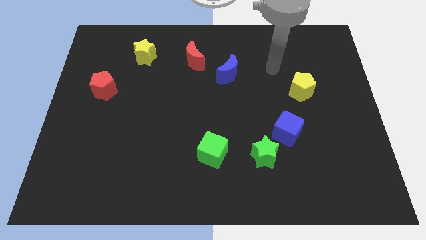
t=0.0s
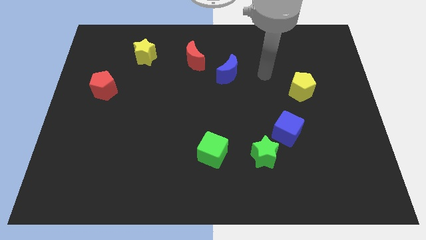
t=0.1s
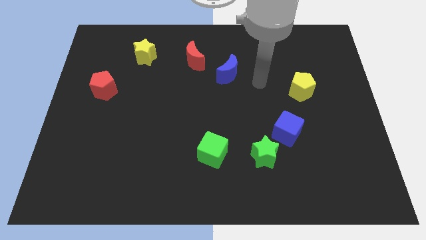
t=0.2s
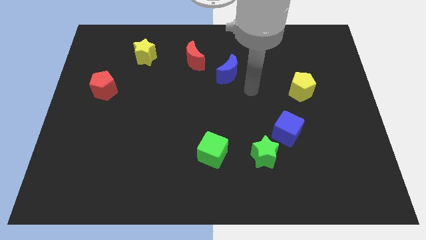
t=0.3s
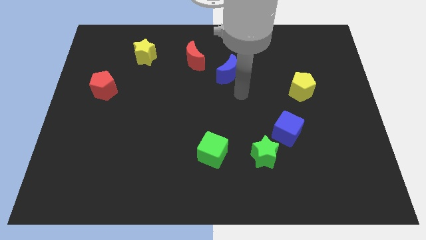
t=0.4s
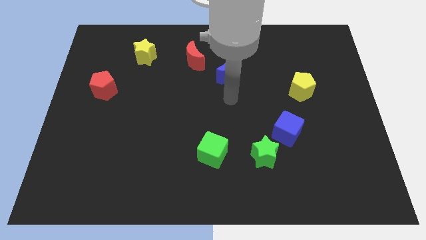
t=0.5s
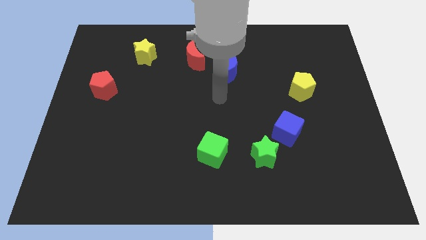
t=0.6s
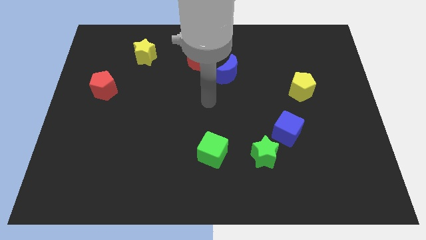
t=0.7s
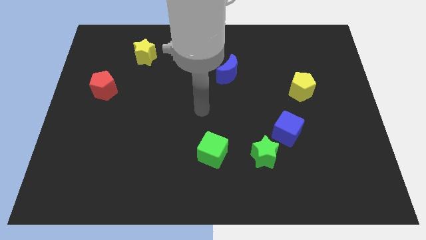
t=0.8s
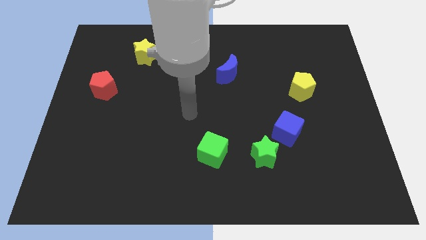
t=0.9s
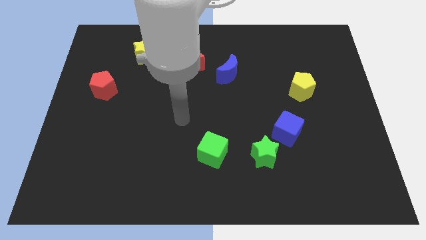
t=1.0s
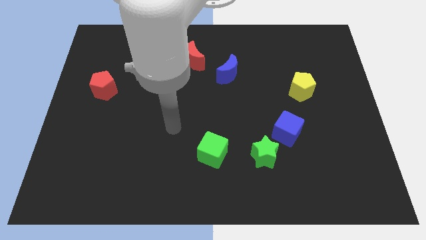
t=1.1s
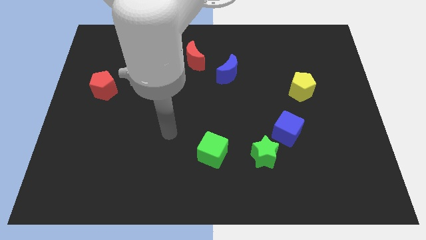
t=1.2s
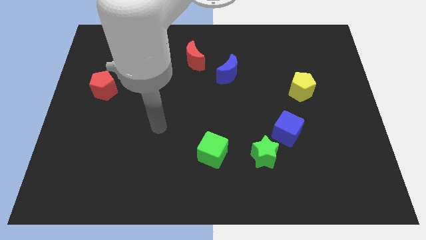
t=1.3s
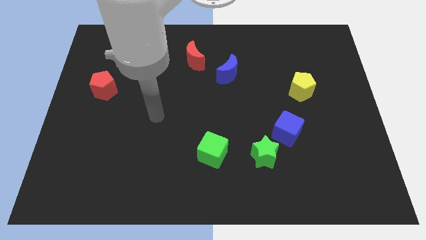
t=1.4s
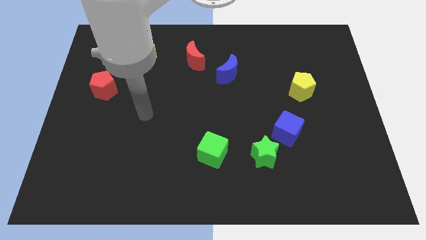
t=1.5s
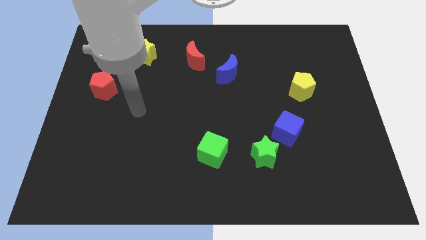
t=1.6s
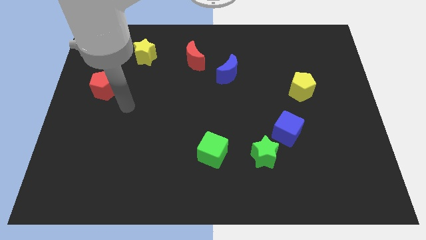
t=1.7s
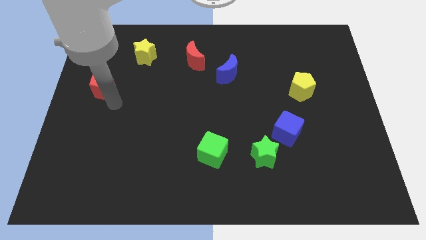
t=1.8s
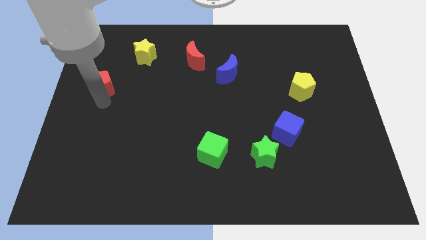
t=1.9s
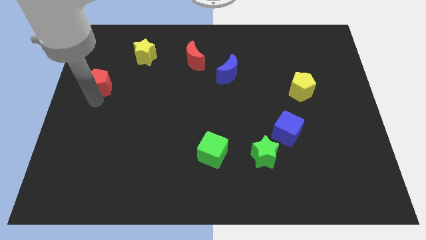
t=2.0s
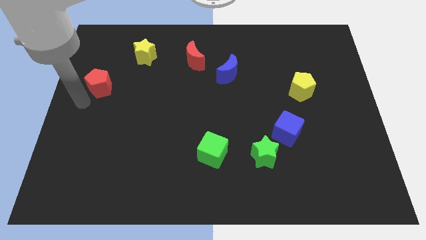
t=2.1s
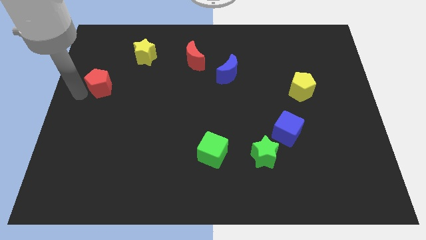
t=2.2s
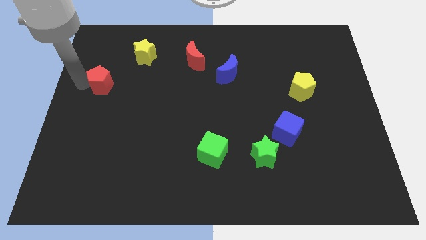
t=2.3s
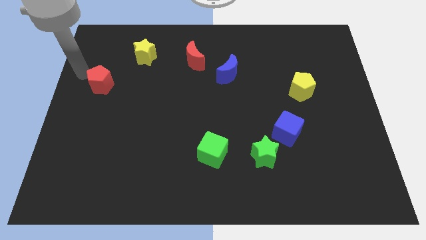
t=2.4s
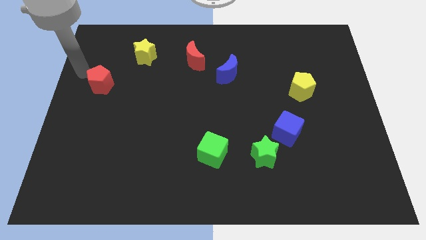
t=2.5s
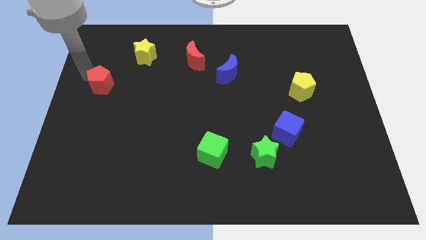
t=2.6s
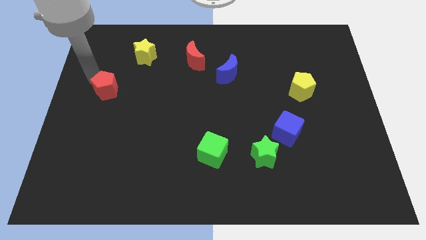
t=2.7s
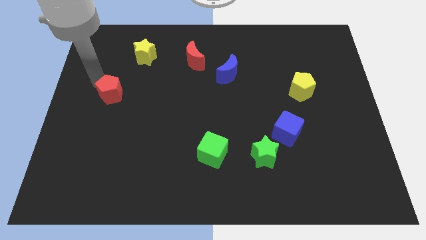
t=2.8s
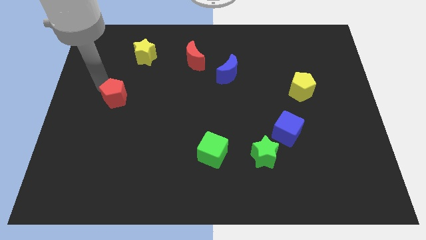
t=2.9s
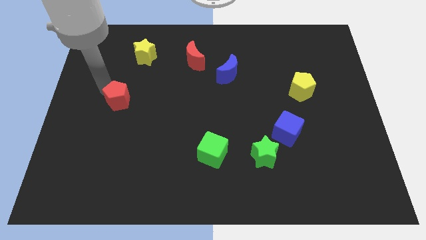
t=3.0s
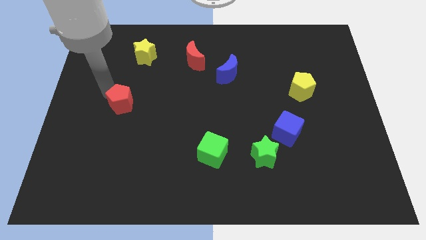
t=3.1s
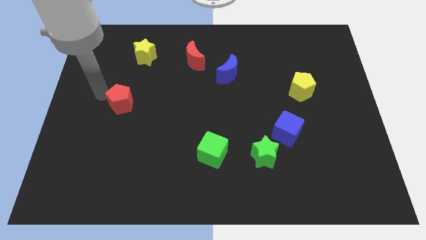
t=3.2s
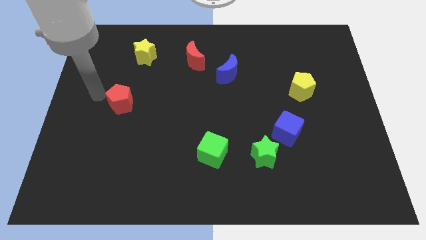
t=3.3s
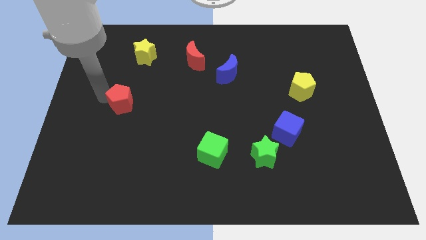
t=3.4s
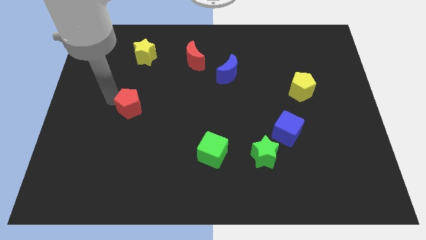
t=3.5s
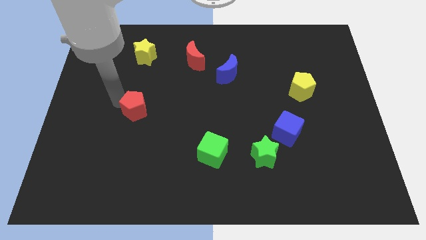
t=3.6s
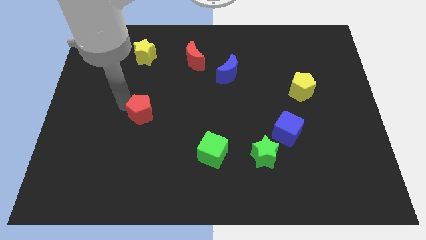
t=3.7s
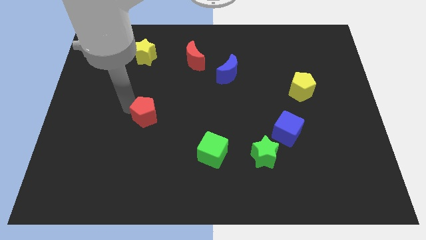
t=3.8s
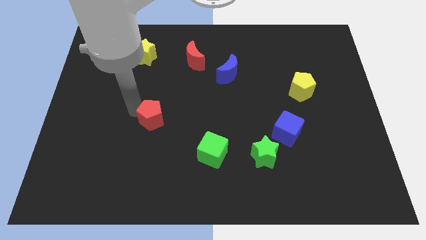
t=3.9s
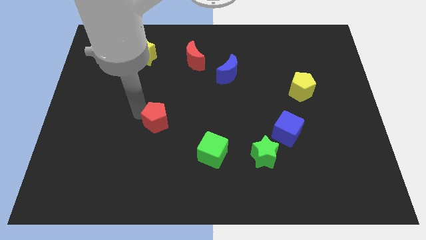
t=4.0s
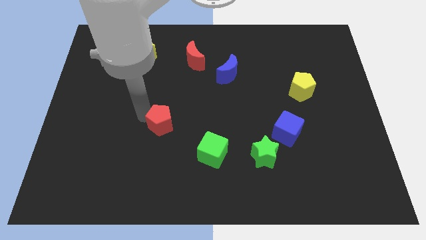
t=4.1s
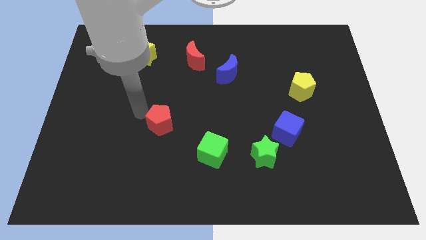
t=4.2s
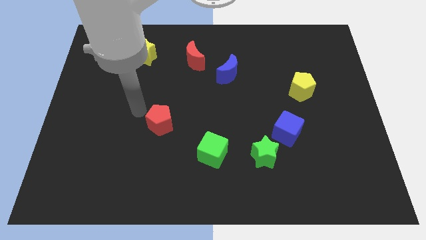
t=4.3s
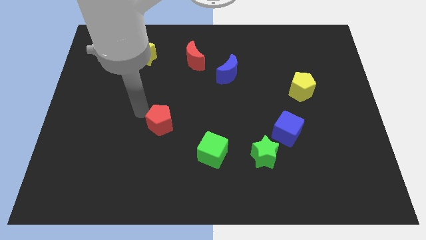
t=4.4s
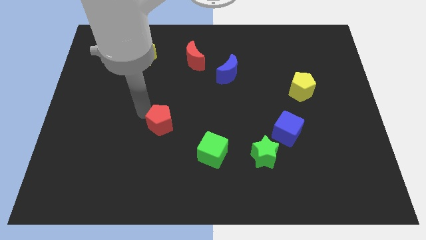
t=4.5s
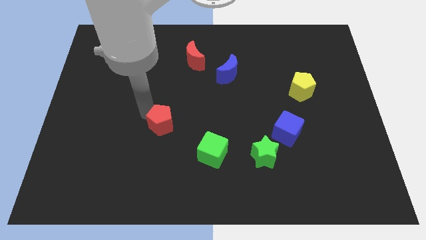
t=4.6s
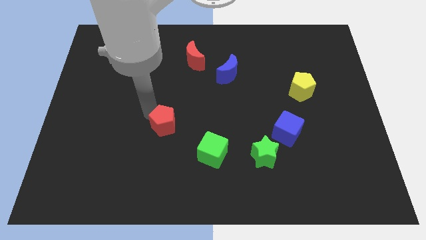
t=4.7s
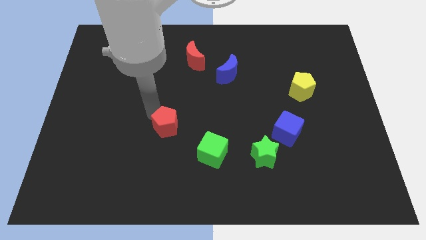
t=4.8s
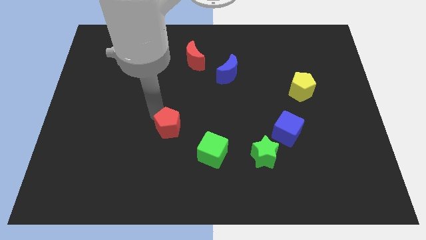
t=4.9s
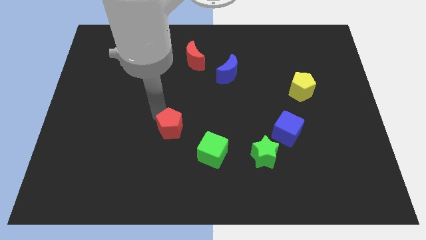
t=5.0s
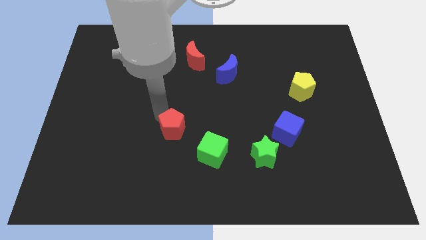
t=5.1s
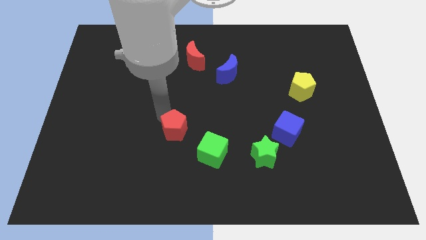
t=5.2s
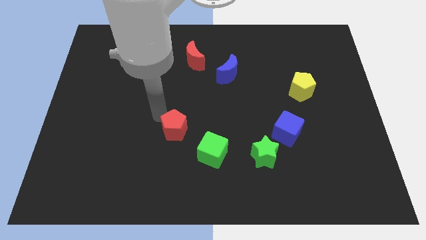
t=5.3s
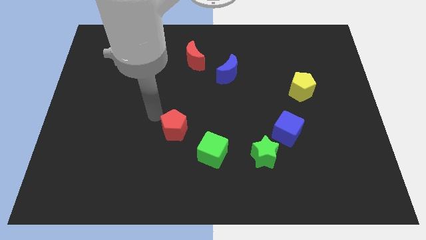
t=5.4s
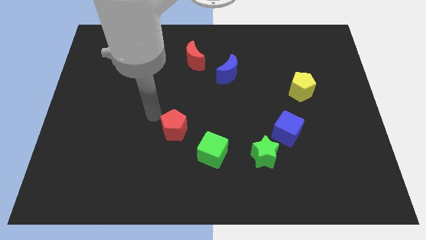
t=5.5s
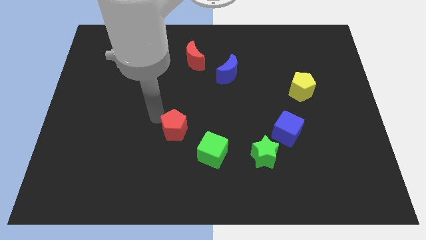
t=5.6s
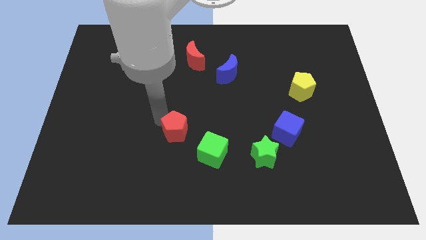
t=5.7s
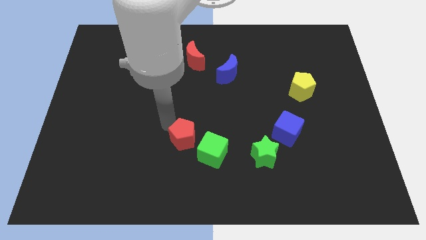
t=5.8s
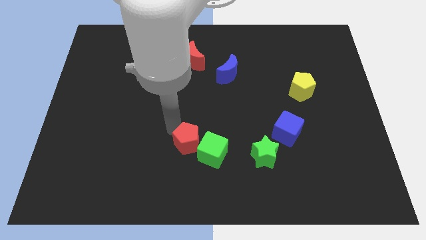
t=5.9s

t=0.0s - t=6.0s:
put the red pentagon towards the green cube

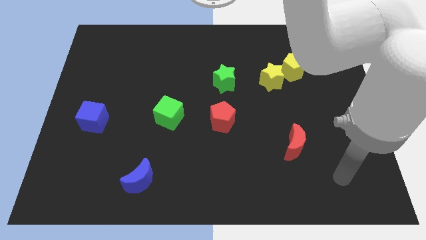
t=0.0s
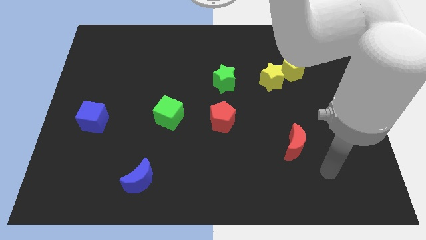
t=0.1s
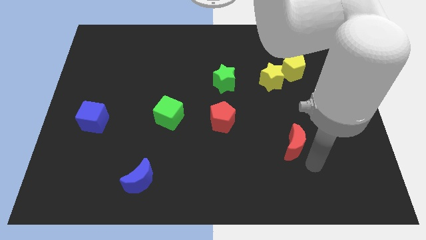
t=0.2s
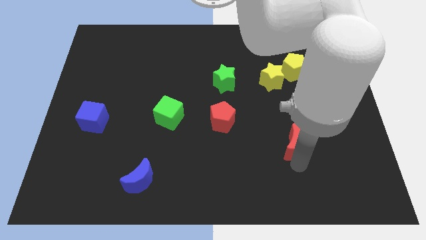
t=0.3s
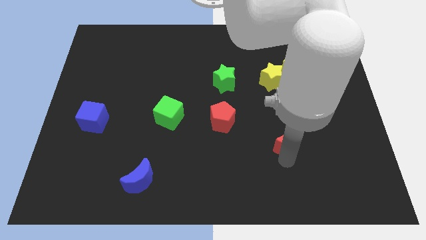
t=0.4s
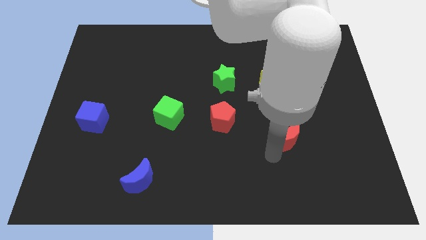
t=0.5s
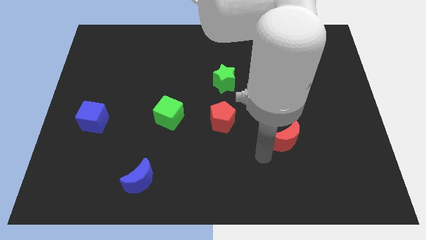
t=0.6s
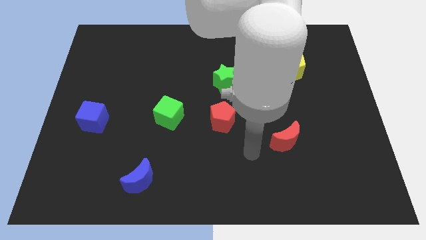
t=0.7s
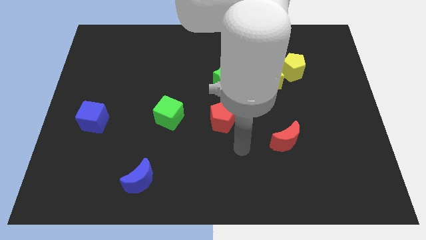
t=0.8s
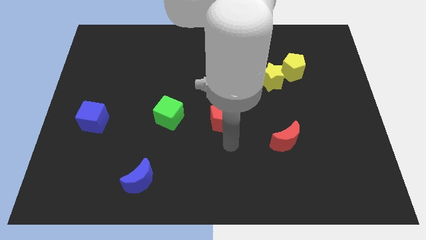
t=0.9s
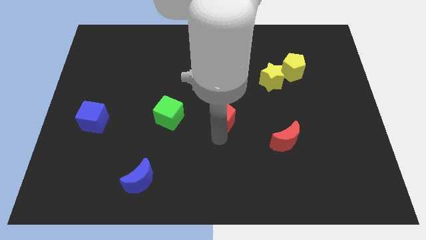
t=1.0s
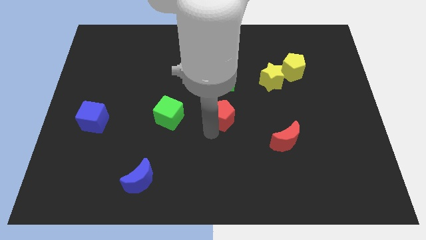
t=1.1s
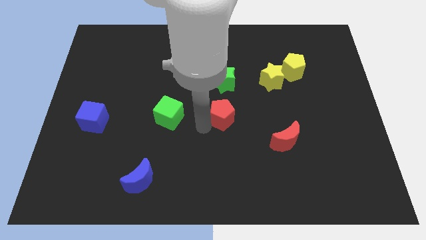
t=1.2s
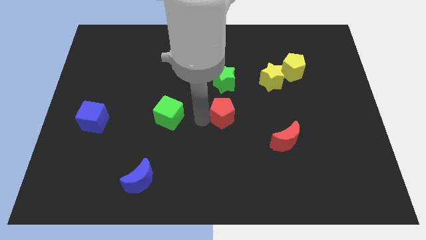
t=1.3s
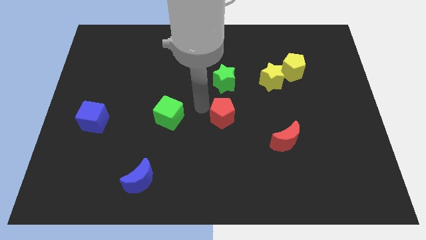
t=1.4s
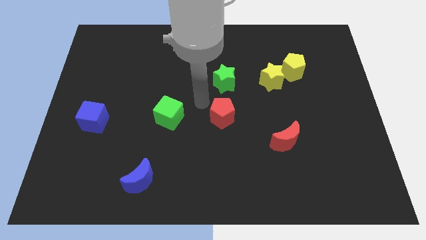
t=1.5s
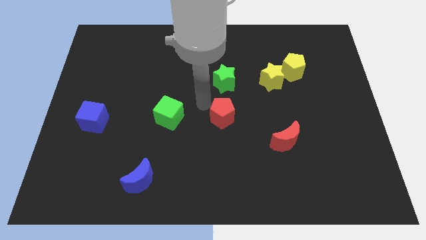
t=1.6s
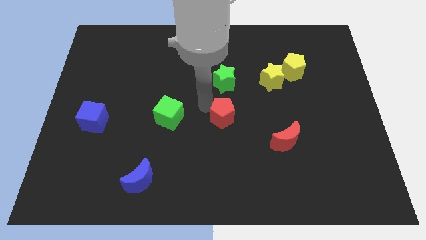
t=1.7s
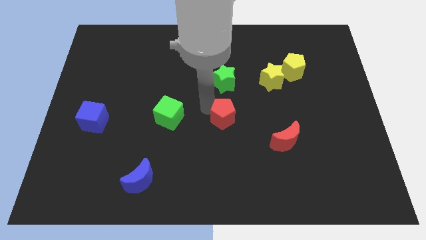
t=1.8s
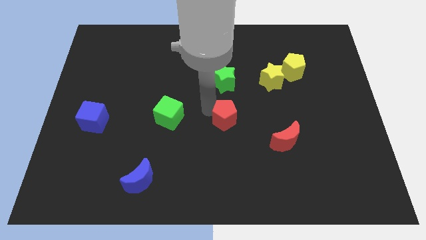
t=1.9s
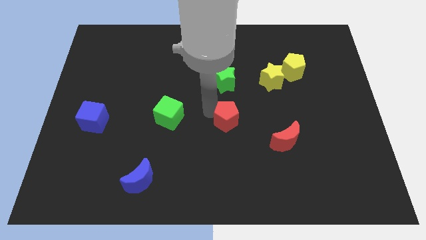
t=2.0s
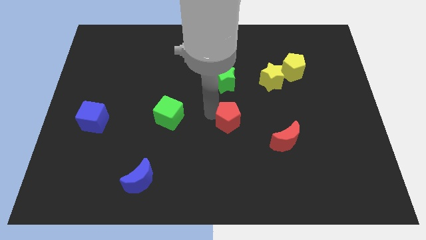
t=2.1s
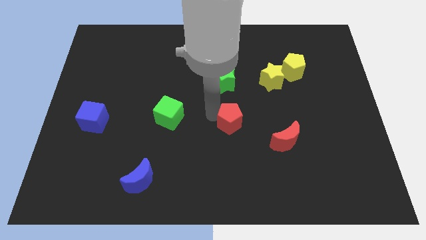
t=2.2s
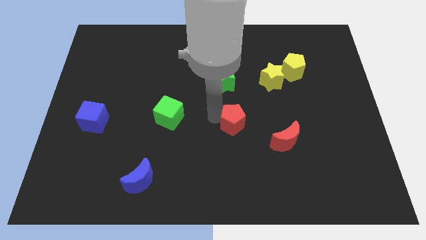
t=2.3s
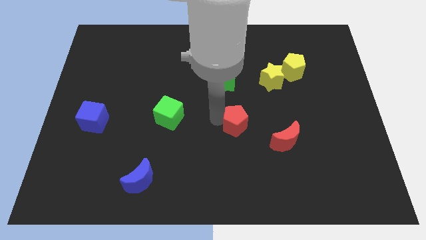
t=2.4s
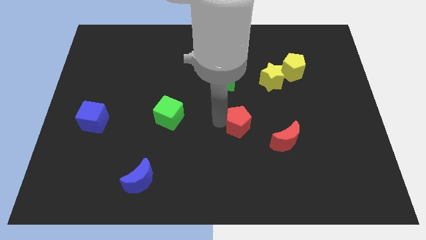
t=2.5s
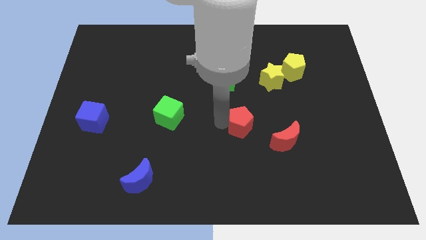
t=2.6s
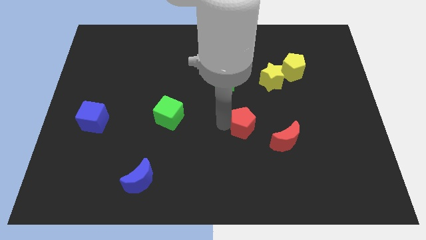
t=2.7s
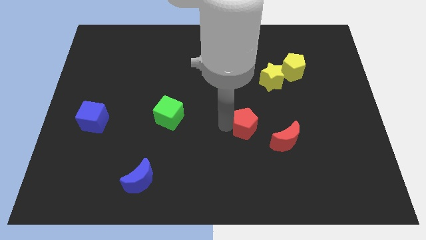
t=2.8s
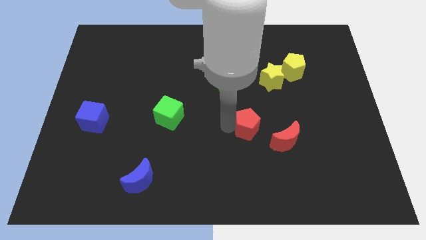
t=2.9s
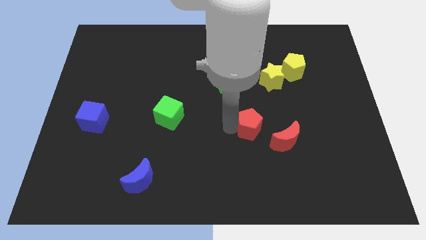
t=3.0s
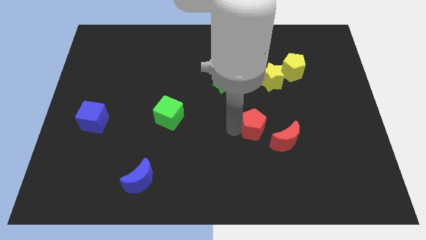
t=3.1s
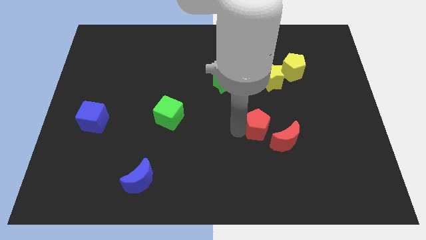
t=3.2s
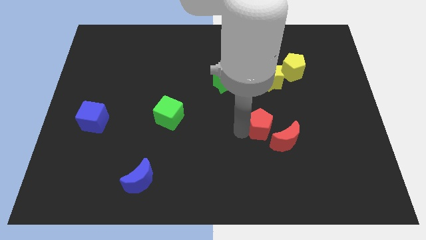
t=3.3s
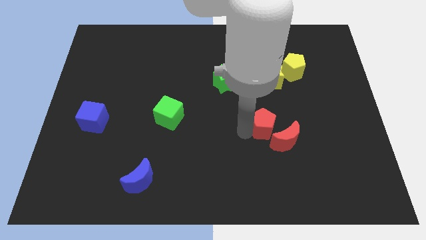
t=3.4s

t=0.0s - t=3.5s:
slide the red pentagon next to the red moon
